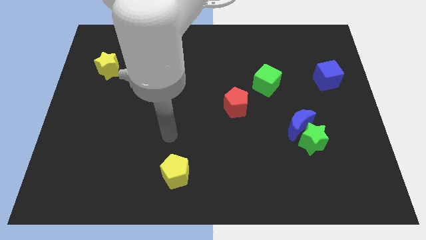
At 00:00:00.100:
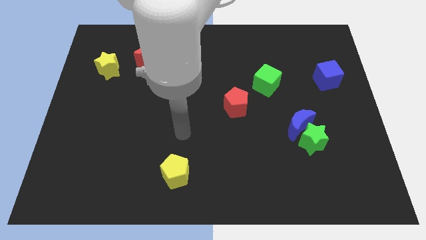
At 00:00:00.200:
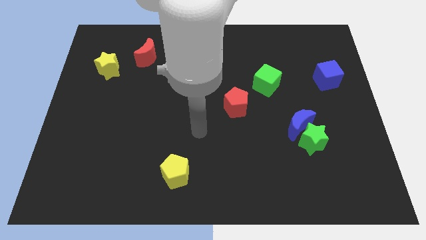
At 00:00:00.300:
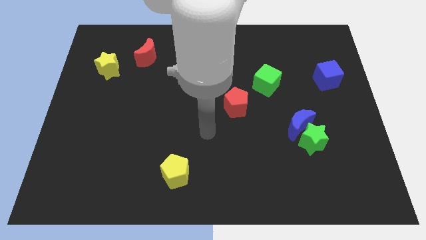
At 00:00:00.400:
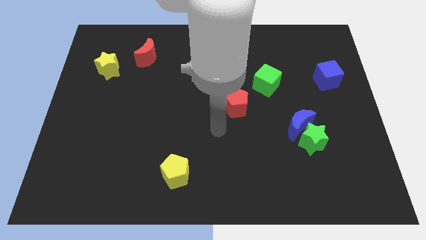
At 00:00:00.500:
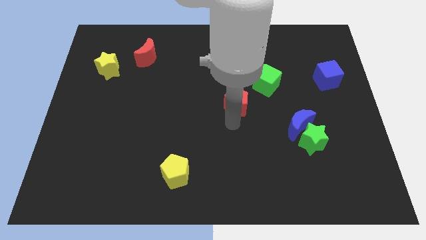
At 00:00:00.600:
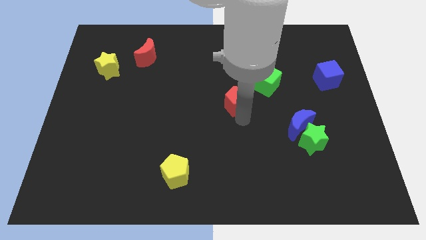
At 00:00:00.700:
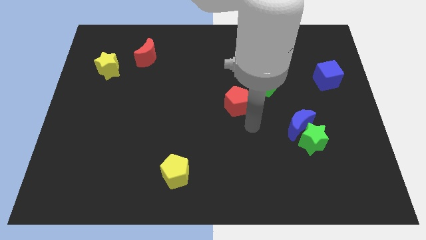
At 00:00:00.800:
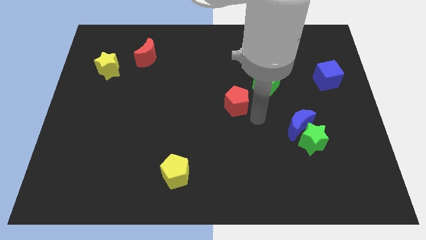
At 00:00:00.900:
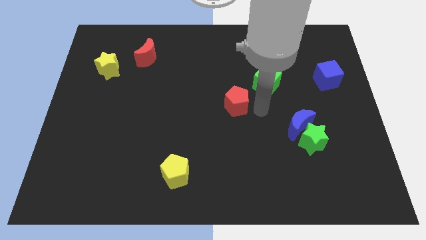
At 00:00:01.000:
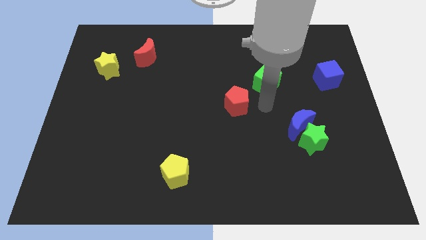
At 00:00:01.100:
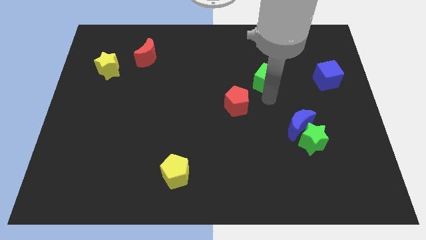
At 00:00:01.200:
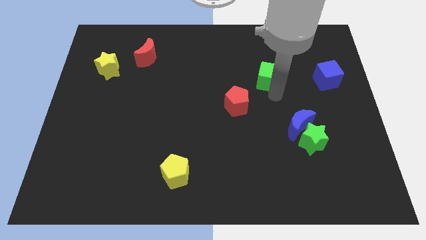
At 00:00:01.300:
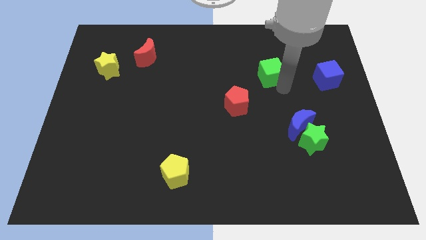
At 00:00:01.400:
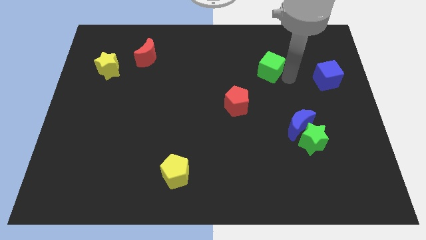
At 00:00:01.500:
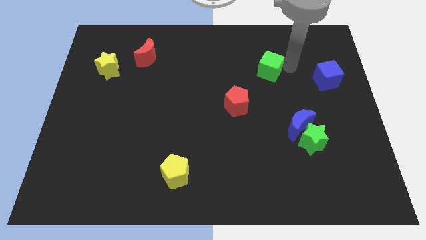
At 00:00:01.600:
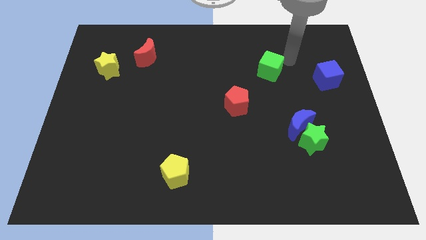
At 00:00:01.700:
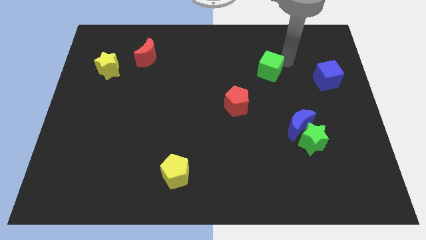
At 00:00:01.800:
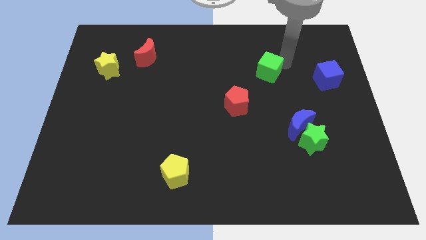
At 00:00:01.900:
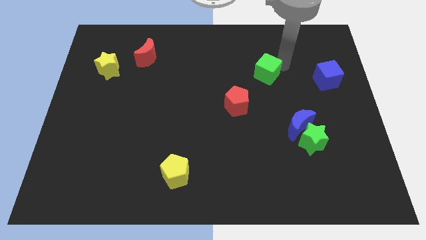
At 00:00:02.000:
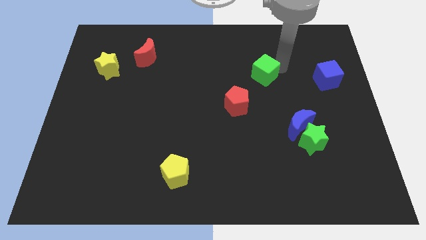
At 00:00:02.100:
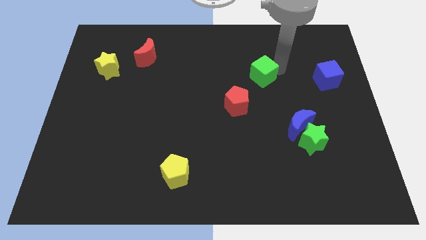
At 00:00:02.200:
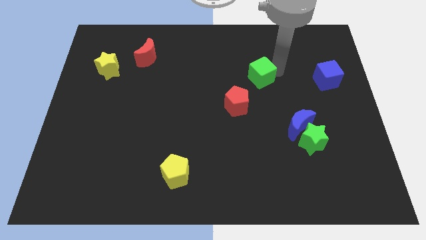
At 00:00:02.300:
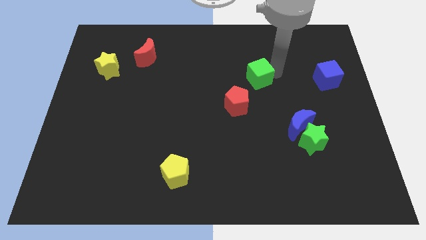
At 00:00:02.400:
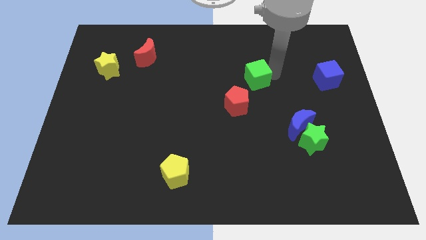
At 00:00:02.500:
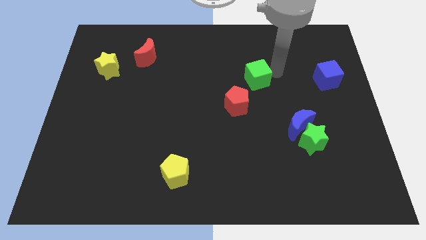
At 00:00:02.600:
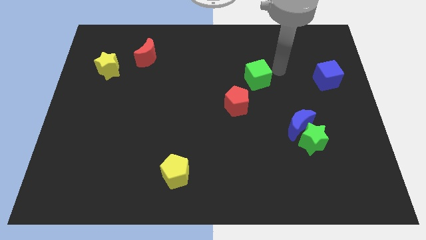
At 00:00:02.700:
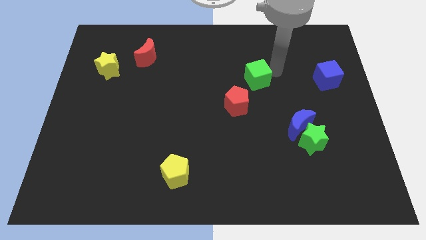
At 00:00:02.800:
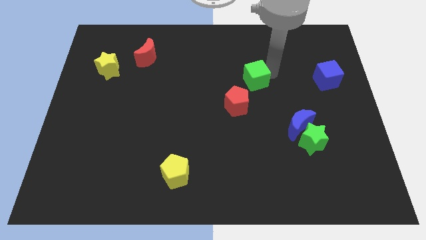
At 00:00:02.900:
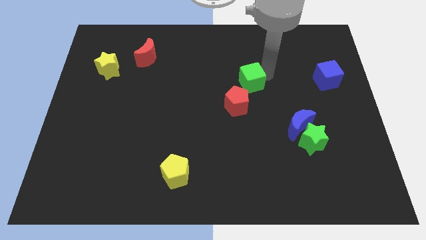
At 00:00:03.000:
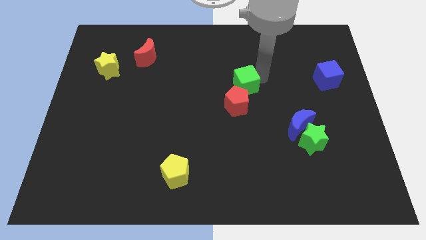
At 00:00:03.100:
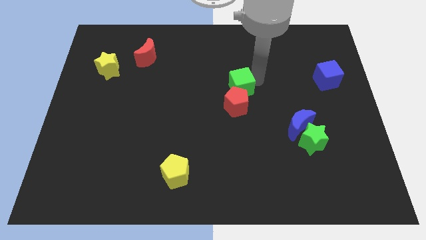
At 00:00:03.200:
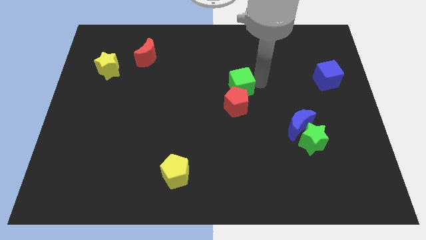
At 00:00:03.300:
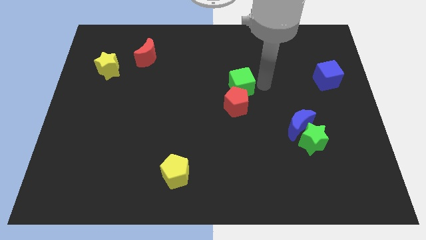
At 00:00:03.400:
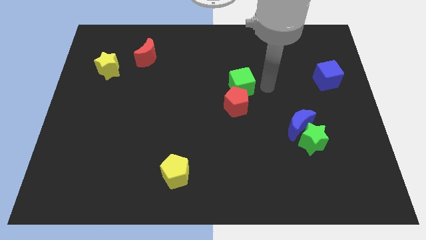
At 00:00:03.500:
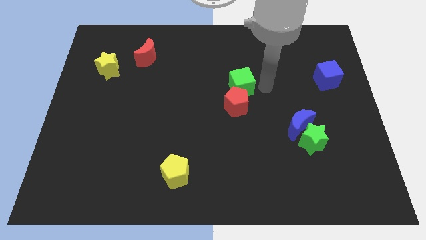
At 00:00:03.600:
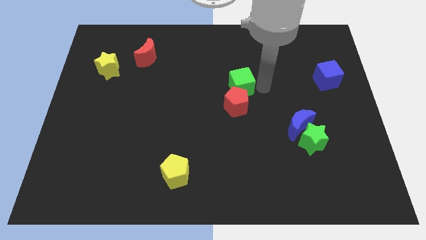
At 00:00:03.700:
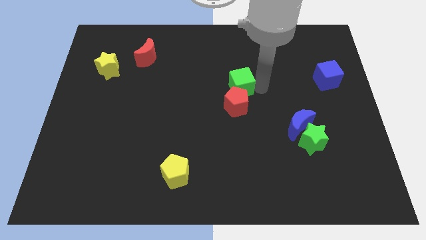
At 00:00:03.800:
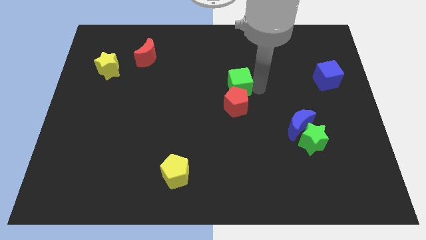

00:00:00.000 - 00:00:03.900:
slide the green cube slightly left

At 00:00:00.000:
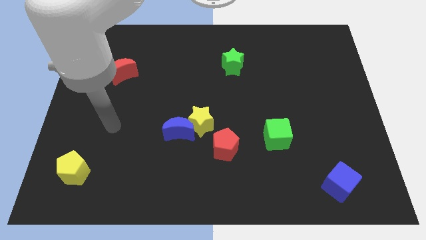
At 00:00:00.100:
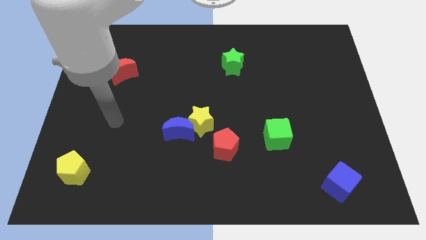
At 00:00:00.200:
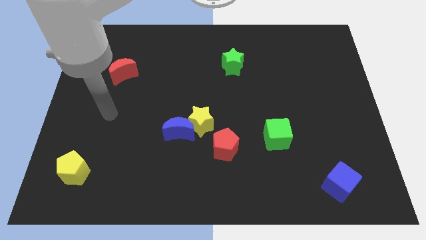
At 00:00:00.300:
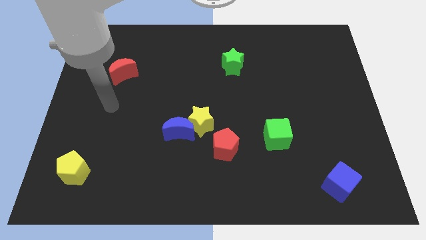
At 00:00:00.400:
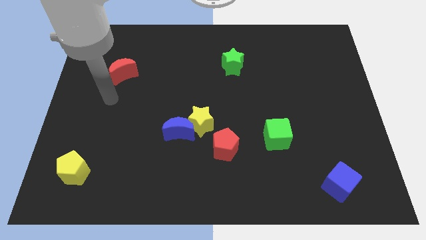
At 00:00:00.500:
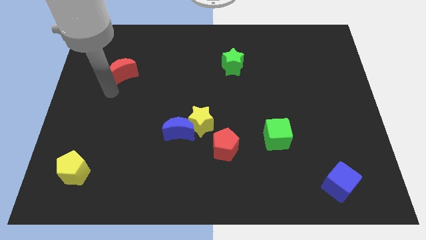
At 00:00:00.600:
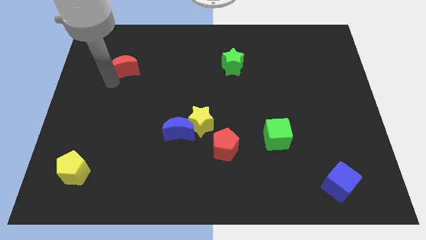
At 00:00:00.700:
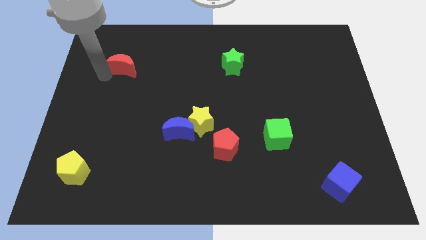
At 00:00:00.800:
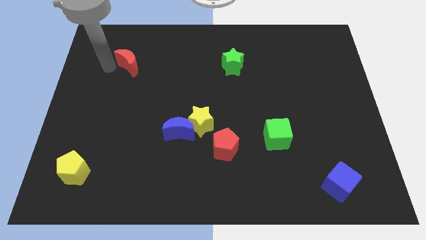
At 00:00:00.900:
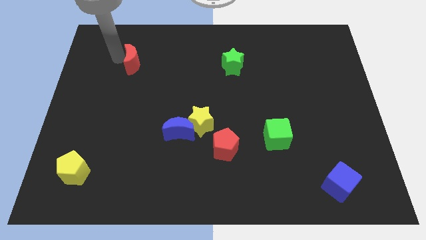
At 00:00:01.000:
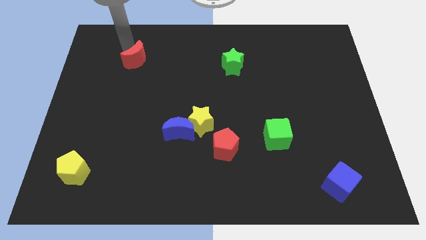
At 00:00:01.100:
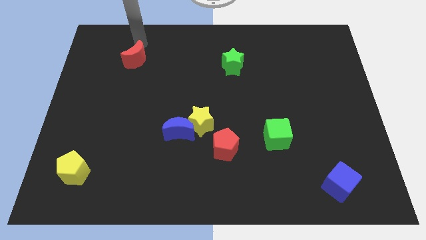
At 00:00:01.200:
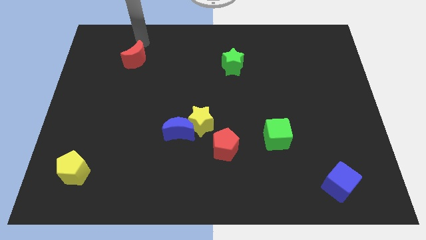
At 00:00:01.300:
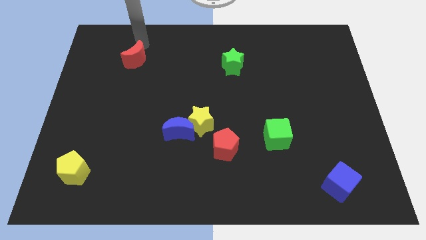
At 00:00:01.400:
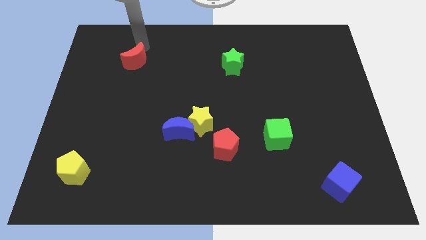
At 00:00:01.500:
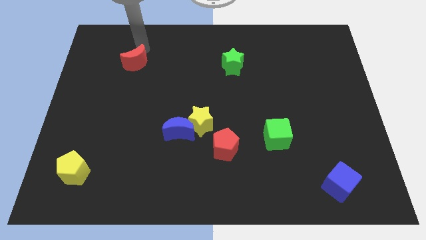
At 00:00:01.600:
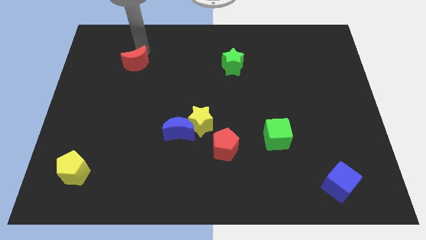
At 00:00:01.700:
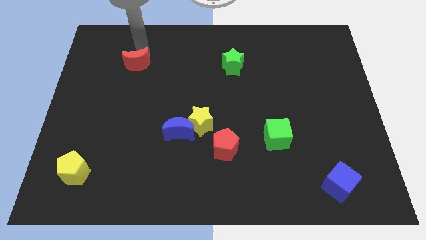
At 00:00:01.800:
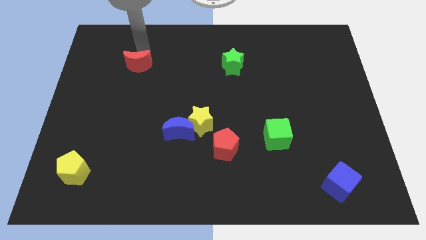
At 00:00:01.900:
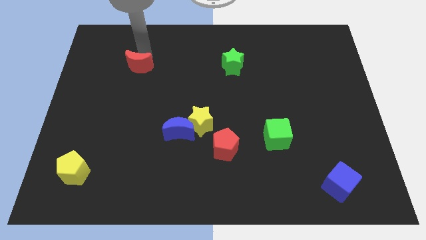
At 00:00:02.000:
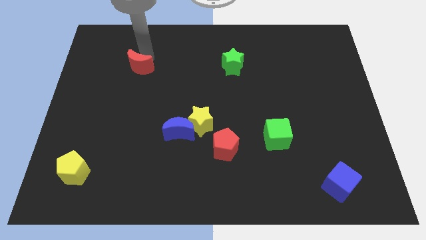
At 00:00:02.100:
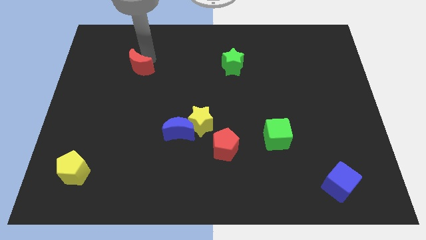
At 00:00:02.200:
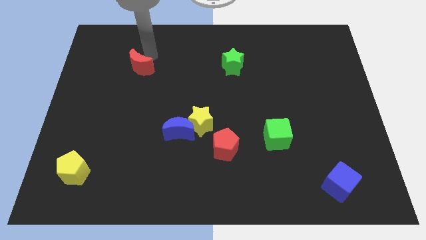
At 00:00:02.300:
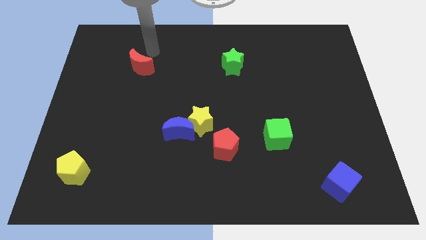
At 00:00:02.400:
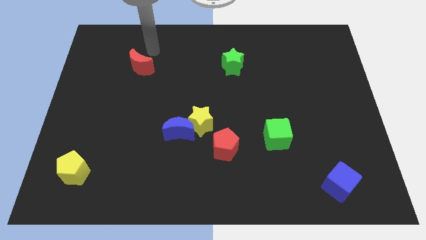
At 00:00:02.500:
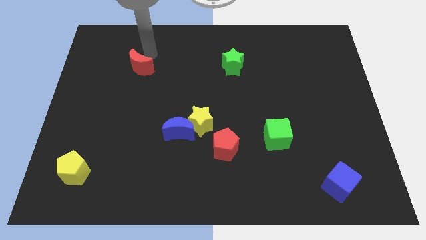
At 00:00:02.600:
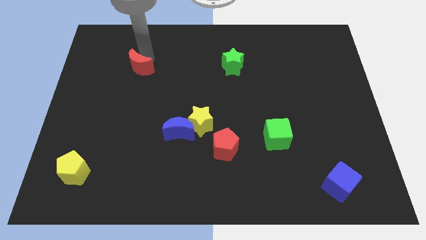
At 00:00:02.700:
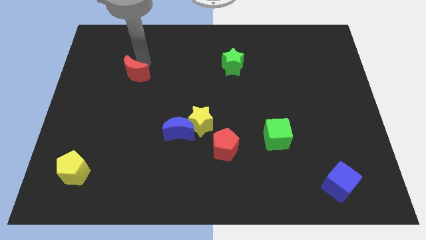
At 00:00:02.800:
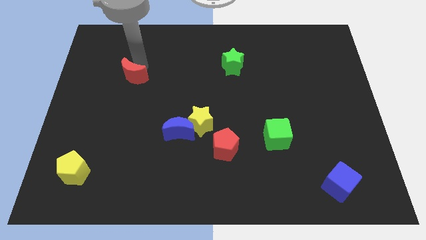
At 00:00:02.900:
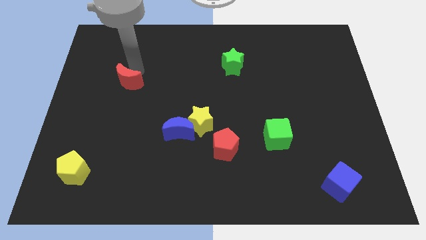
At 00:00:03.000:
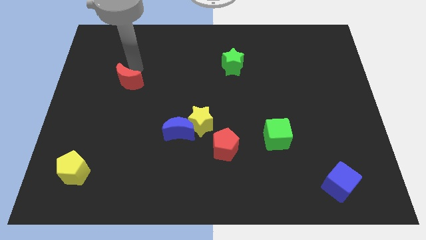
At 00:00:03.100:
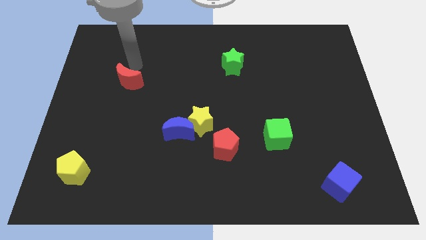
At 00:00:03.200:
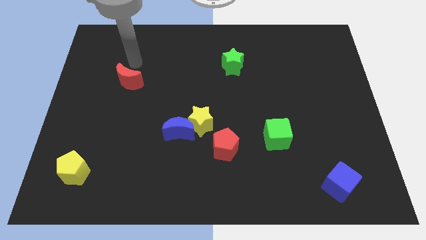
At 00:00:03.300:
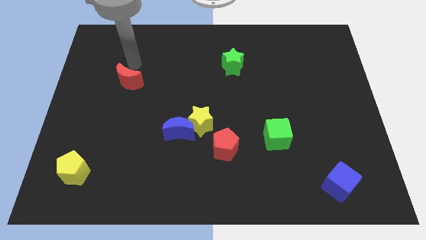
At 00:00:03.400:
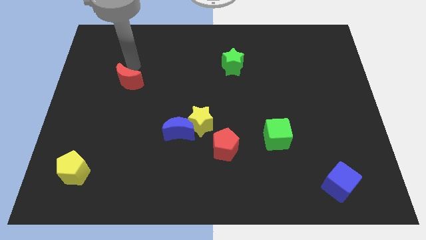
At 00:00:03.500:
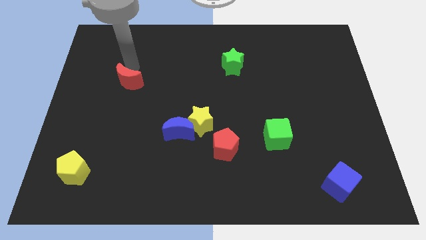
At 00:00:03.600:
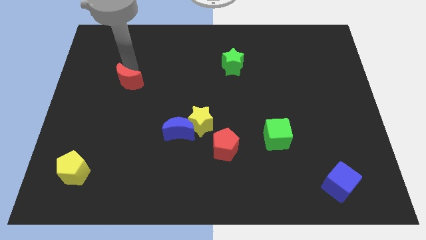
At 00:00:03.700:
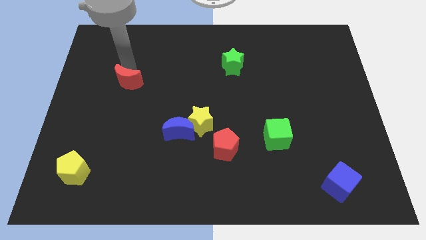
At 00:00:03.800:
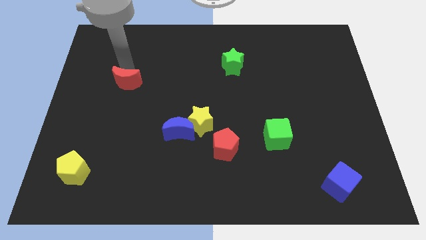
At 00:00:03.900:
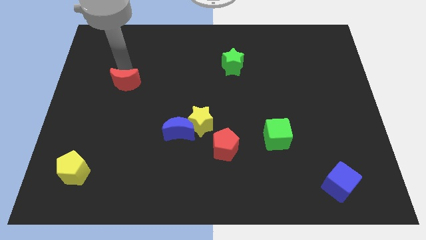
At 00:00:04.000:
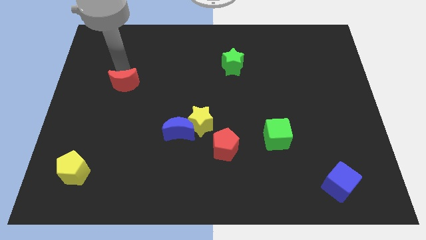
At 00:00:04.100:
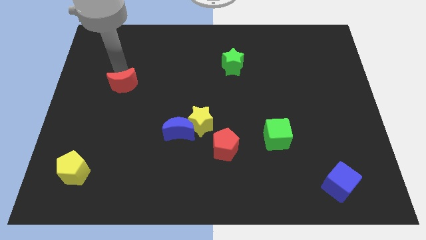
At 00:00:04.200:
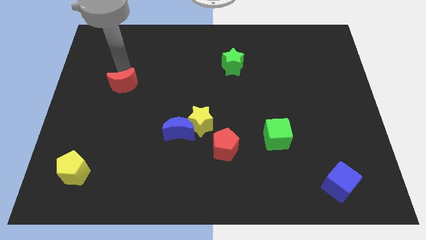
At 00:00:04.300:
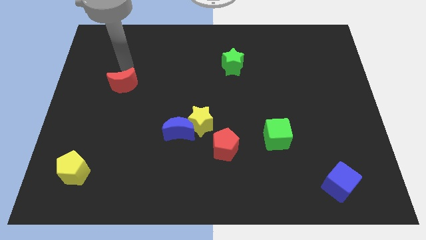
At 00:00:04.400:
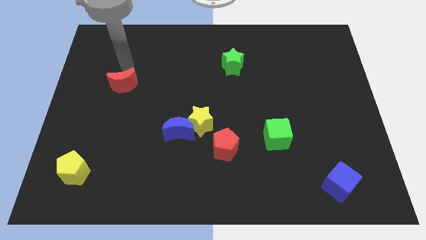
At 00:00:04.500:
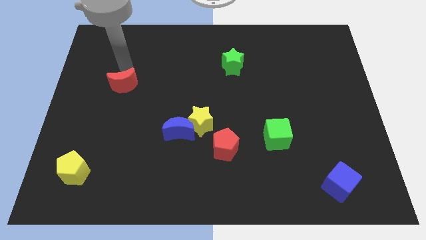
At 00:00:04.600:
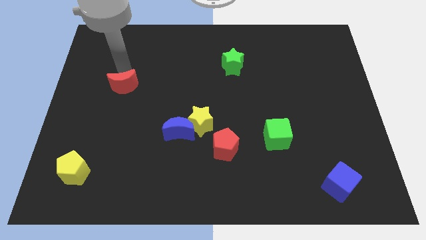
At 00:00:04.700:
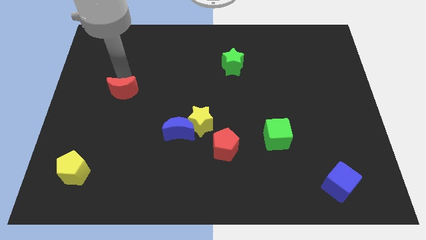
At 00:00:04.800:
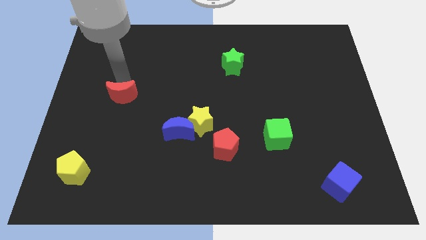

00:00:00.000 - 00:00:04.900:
move the red moon down slightly
